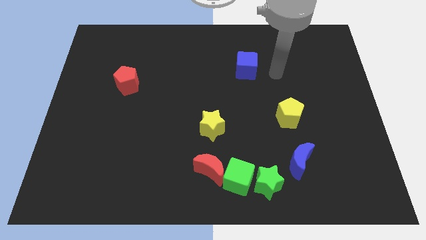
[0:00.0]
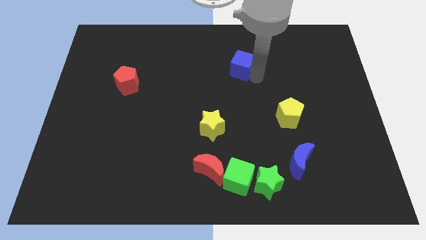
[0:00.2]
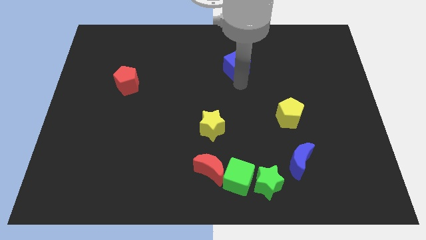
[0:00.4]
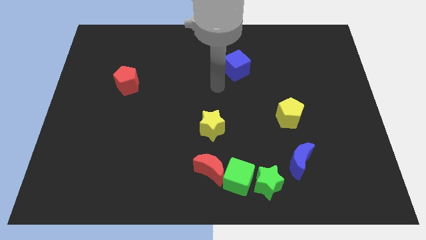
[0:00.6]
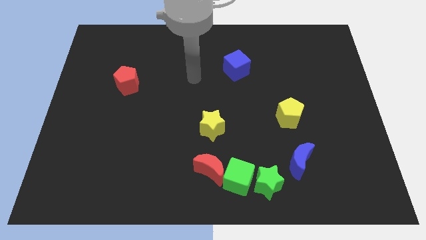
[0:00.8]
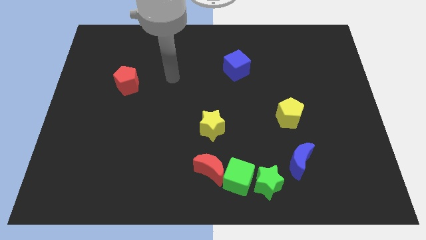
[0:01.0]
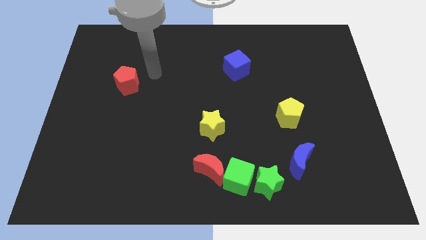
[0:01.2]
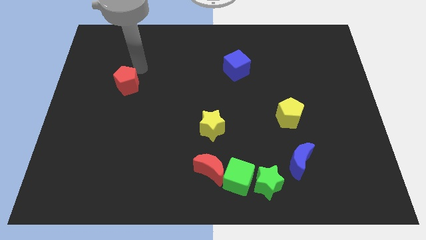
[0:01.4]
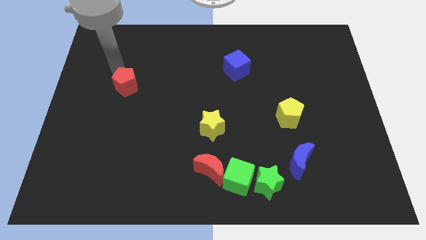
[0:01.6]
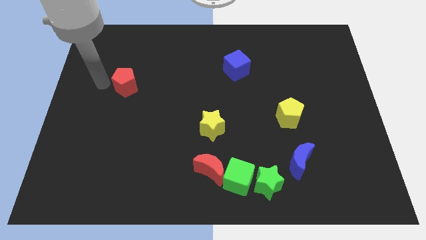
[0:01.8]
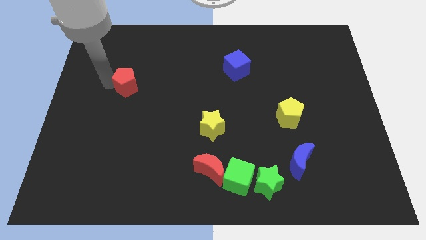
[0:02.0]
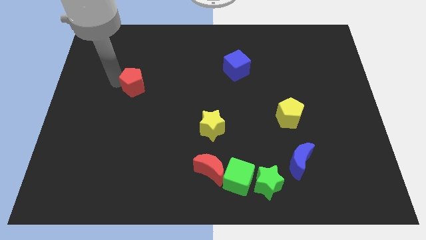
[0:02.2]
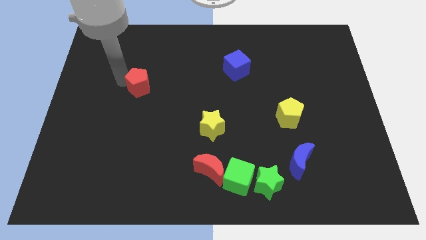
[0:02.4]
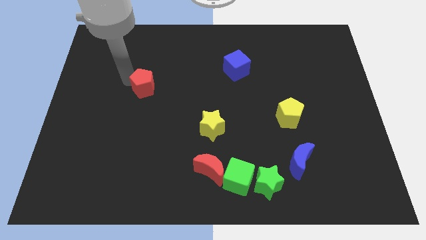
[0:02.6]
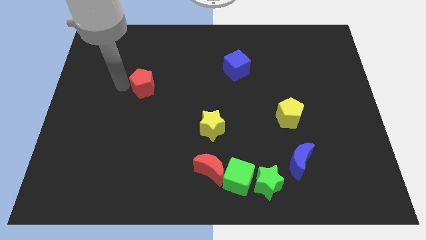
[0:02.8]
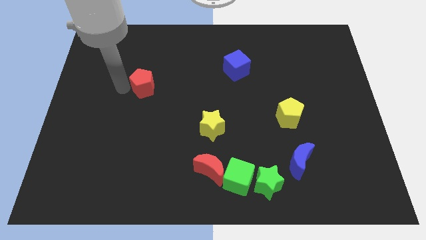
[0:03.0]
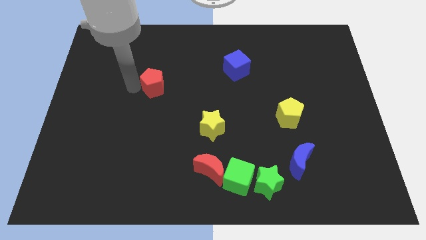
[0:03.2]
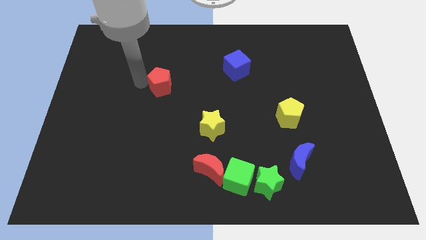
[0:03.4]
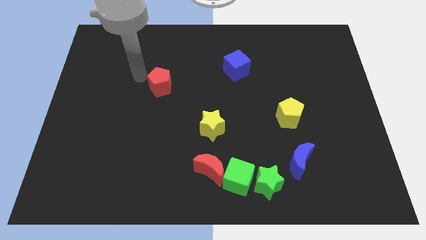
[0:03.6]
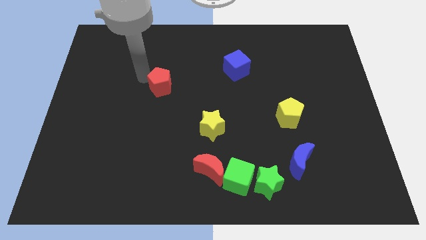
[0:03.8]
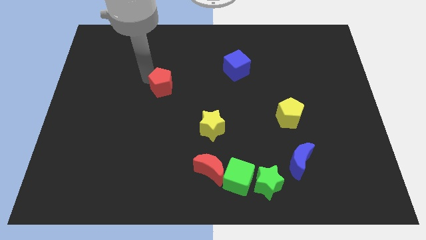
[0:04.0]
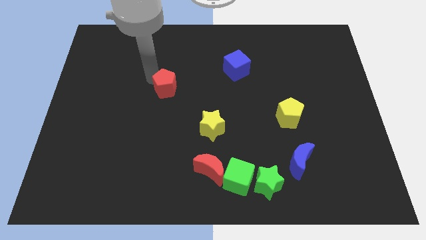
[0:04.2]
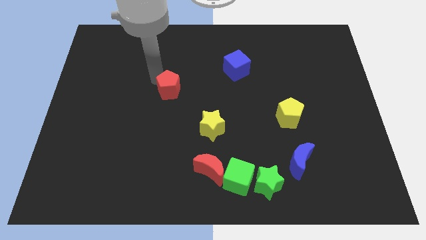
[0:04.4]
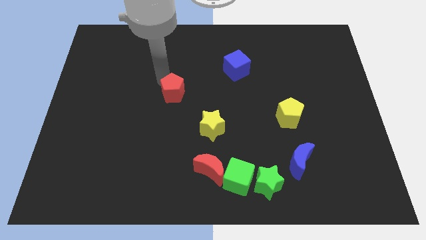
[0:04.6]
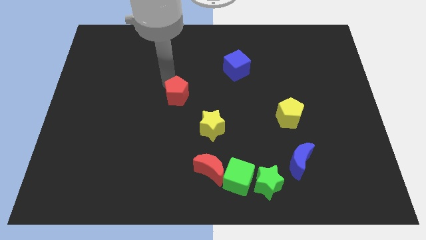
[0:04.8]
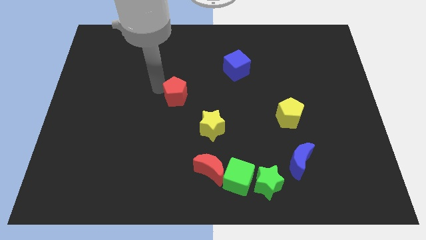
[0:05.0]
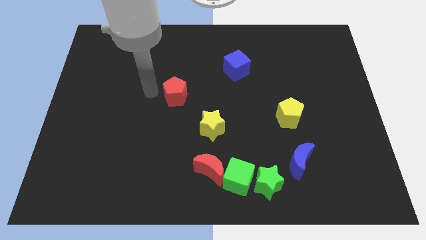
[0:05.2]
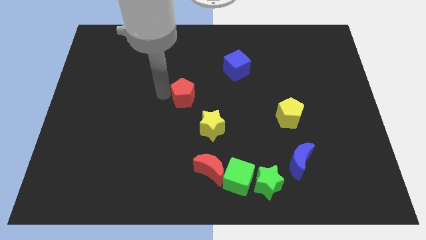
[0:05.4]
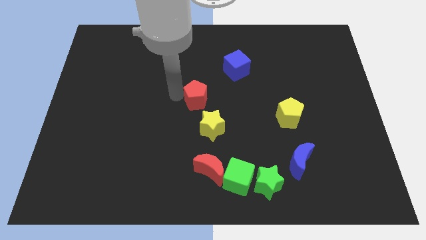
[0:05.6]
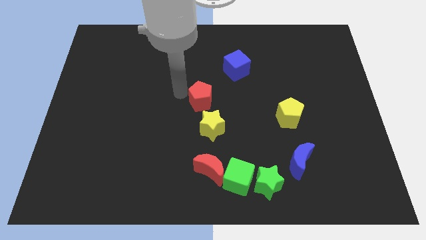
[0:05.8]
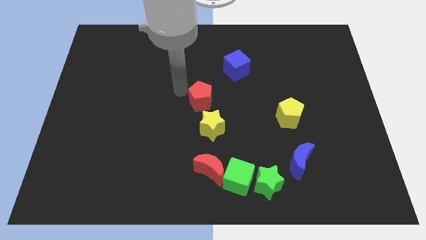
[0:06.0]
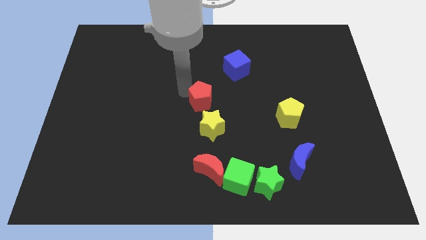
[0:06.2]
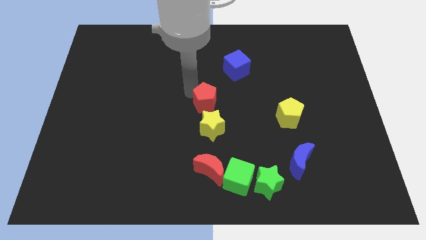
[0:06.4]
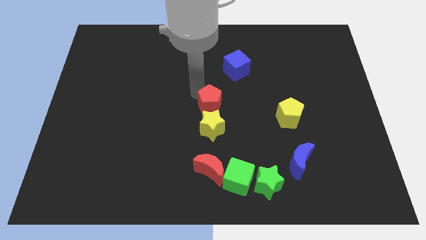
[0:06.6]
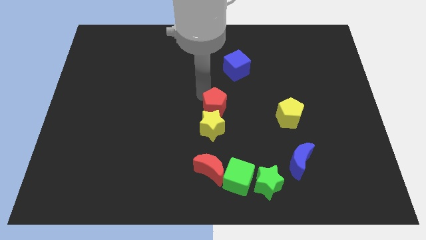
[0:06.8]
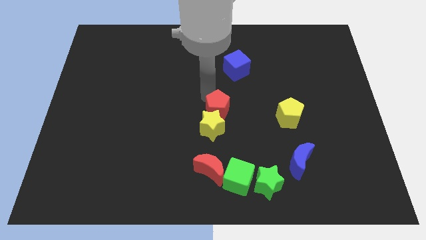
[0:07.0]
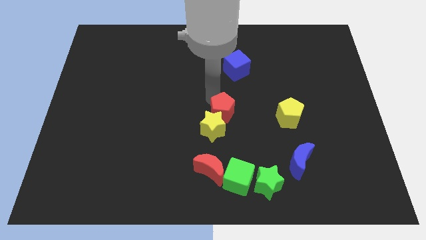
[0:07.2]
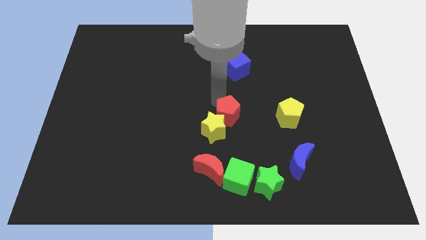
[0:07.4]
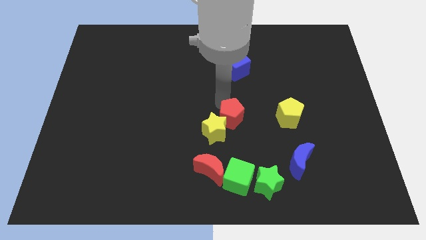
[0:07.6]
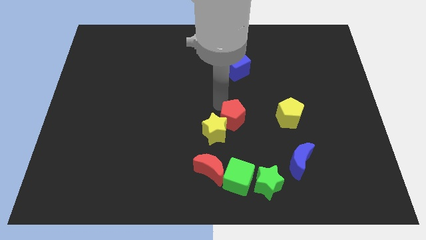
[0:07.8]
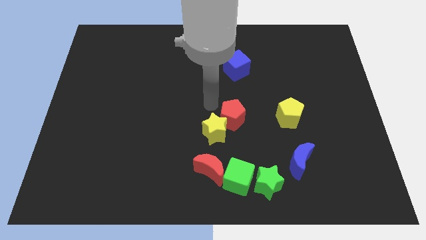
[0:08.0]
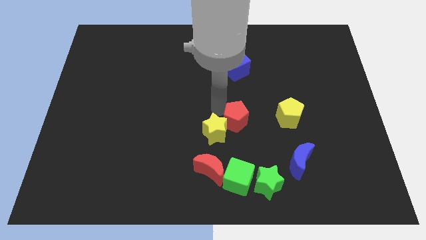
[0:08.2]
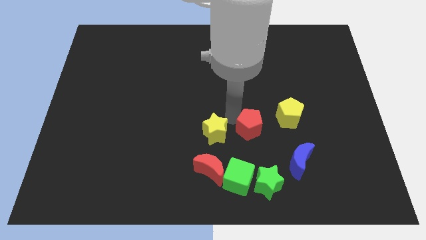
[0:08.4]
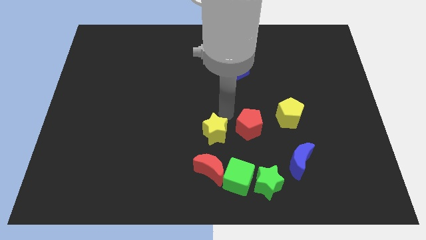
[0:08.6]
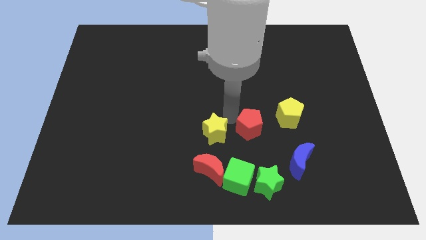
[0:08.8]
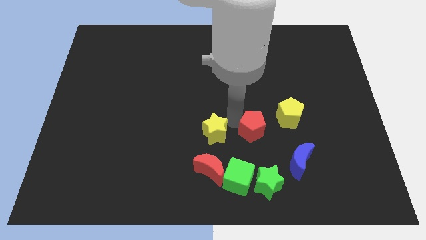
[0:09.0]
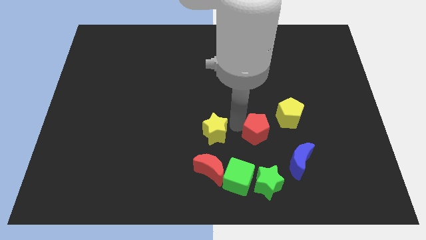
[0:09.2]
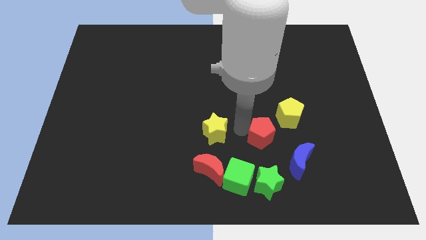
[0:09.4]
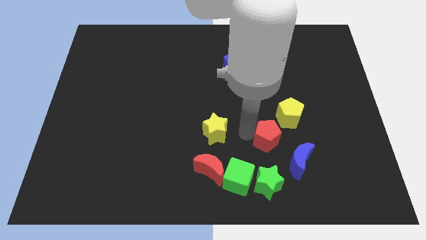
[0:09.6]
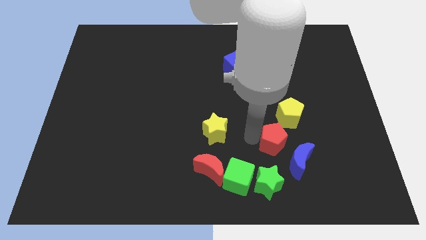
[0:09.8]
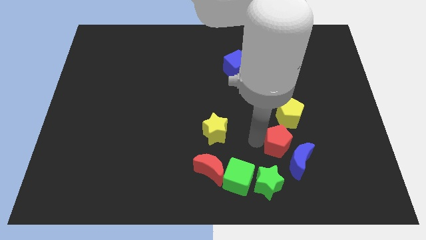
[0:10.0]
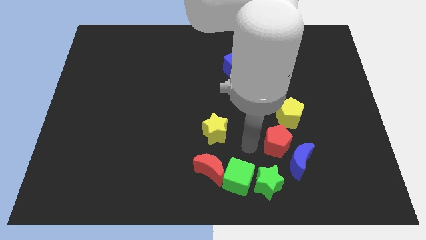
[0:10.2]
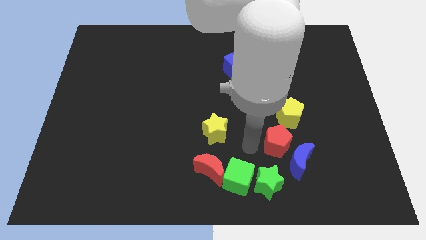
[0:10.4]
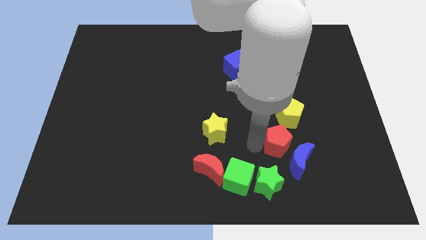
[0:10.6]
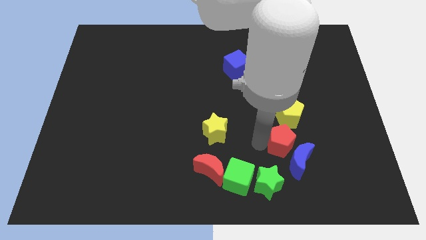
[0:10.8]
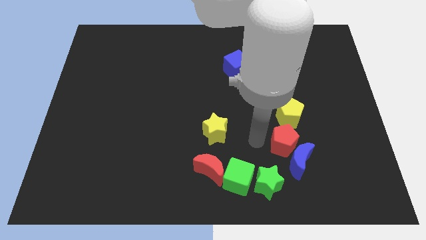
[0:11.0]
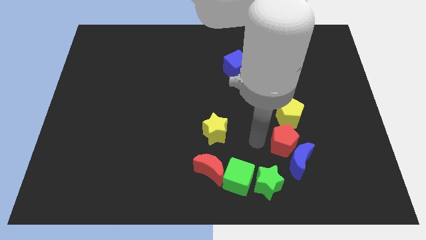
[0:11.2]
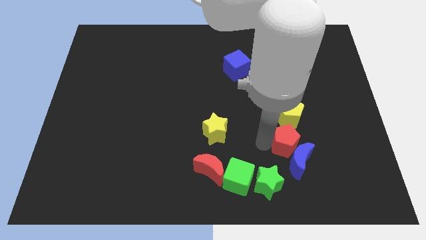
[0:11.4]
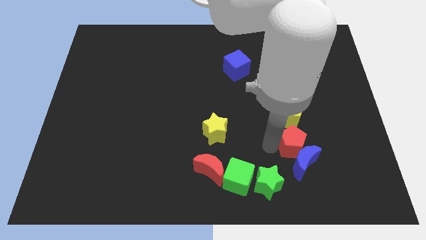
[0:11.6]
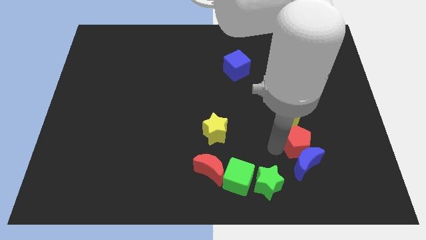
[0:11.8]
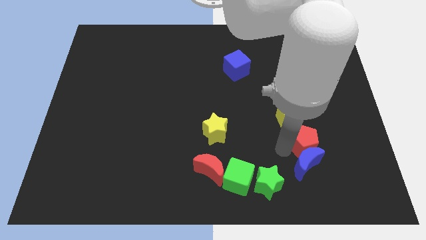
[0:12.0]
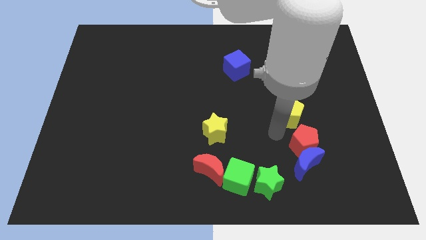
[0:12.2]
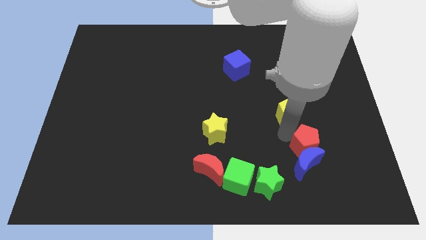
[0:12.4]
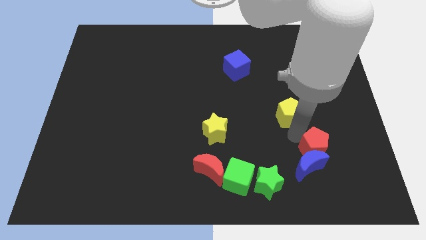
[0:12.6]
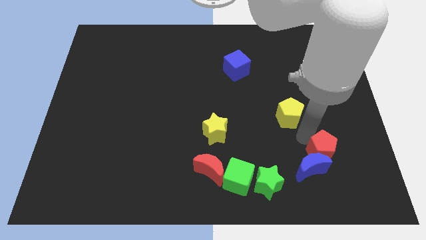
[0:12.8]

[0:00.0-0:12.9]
put the red pentagon just right of the blue moon

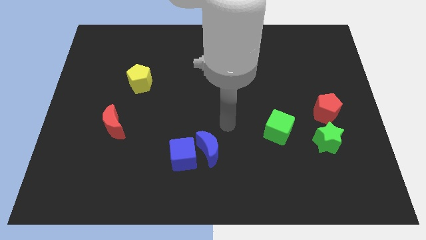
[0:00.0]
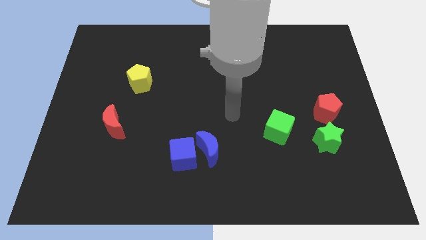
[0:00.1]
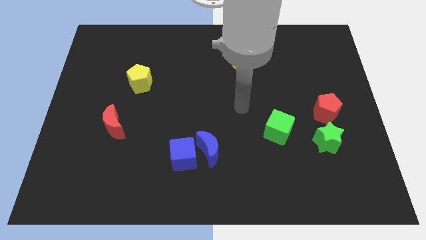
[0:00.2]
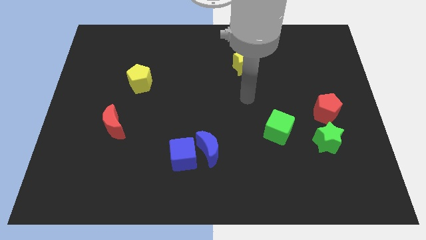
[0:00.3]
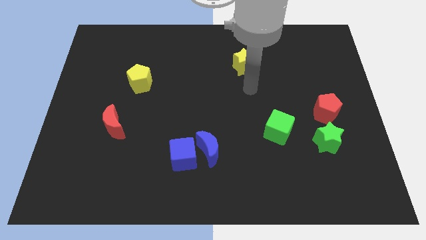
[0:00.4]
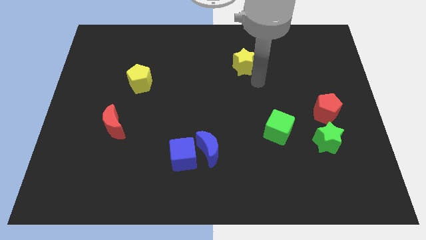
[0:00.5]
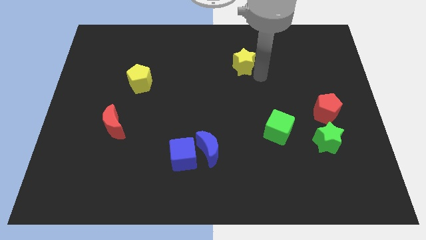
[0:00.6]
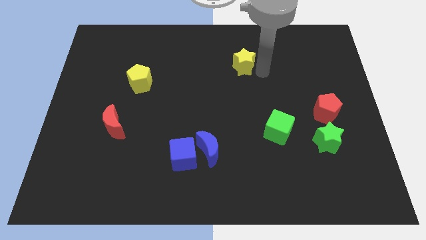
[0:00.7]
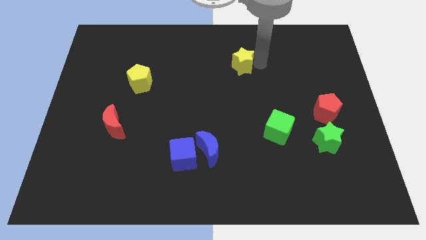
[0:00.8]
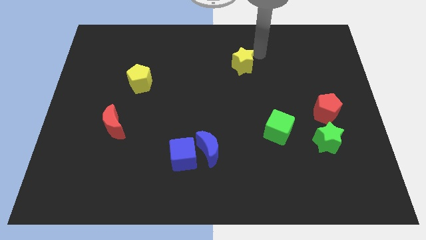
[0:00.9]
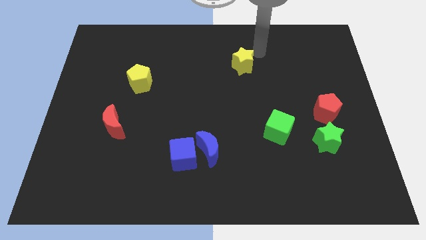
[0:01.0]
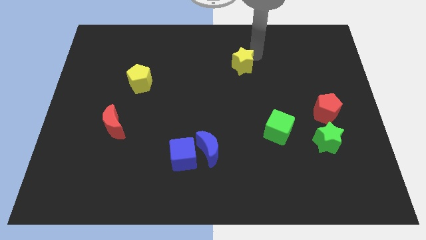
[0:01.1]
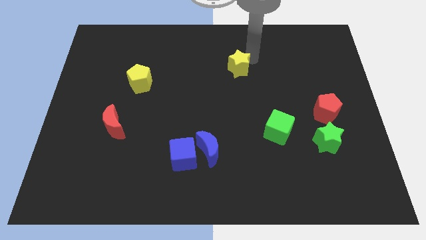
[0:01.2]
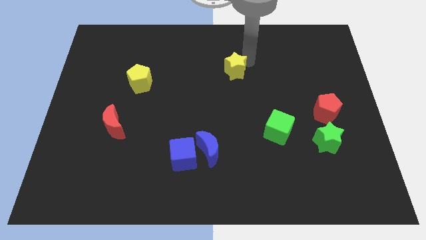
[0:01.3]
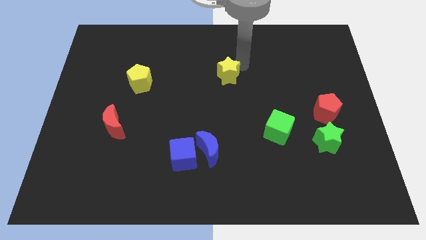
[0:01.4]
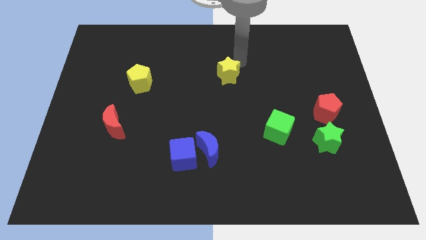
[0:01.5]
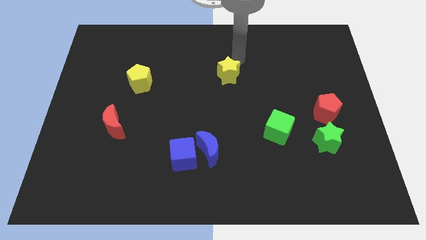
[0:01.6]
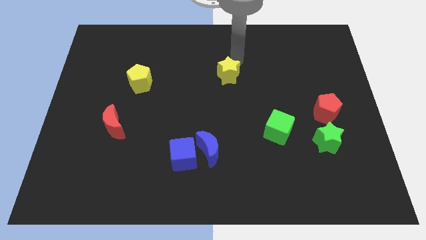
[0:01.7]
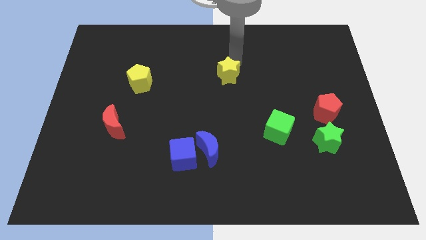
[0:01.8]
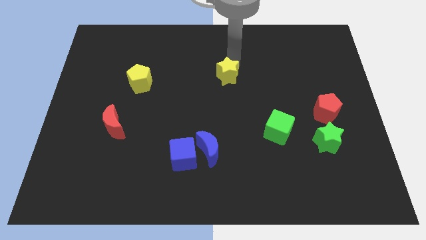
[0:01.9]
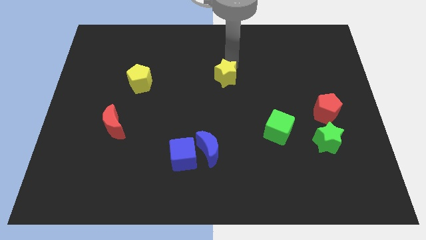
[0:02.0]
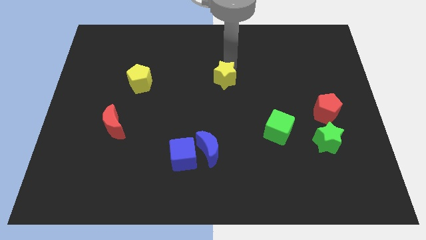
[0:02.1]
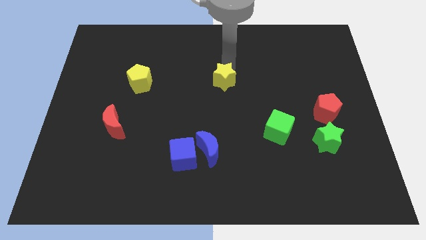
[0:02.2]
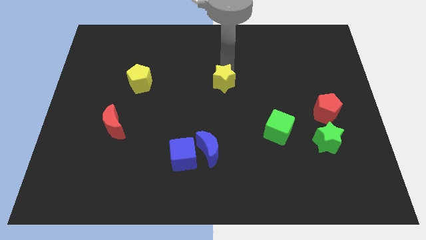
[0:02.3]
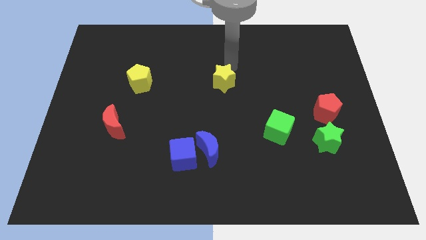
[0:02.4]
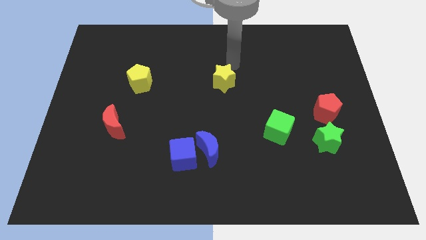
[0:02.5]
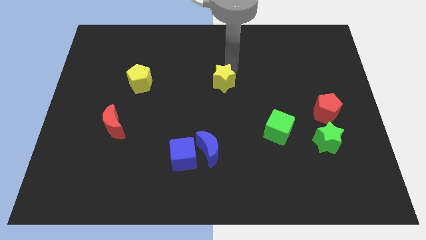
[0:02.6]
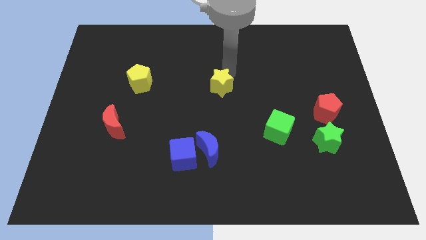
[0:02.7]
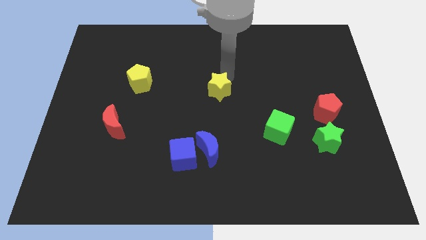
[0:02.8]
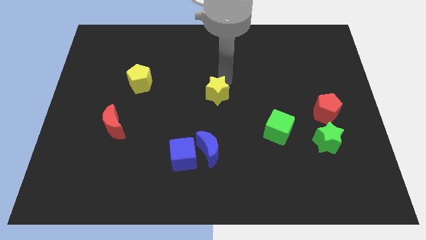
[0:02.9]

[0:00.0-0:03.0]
move the yellow star above the blue moon
